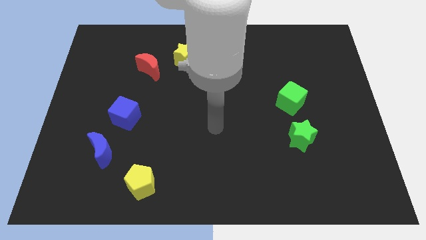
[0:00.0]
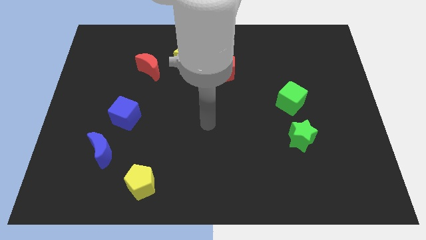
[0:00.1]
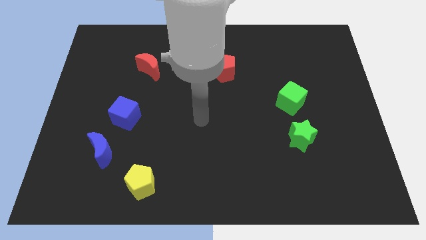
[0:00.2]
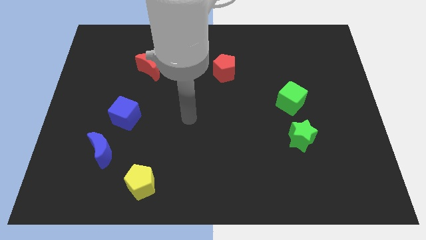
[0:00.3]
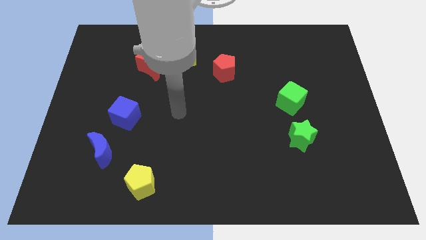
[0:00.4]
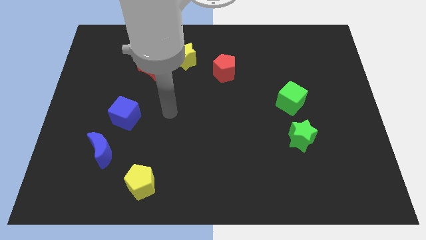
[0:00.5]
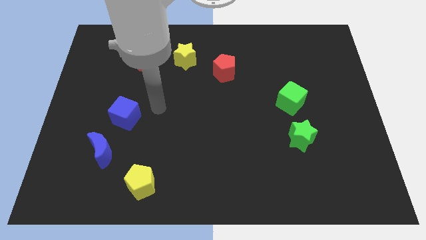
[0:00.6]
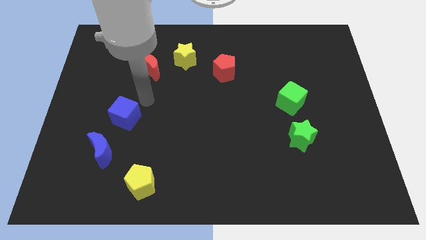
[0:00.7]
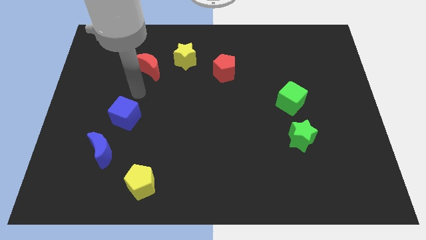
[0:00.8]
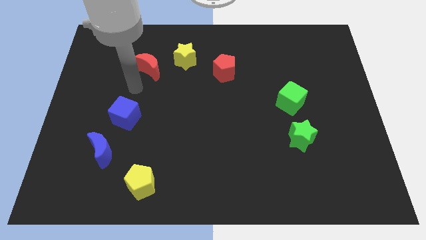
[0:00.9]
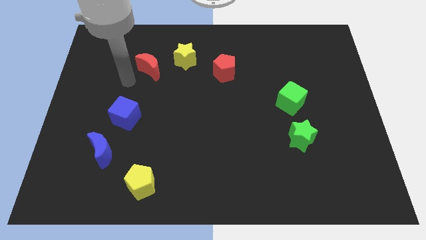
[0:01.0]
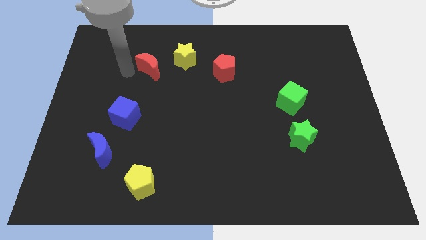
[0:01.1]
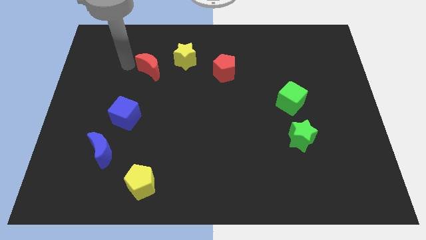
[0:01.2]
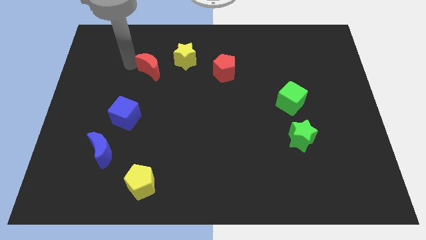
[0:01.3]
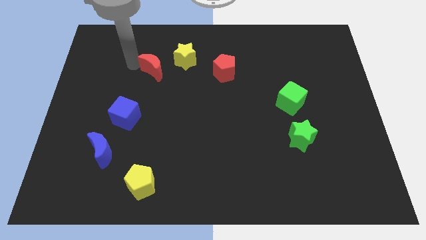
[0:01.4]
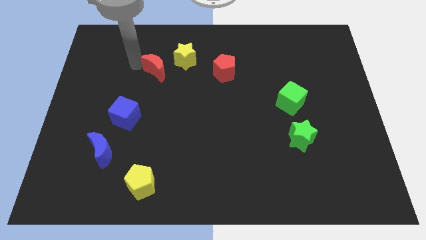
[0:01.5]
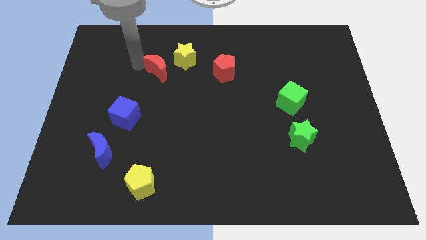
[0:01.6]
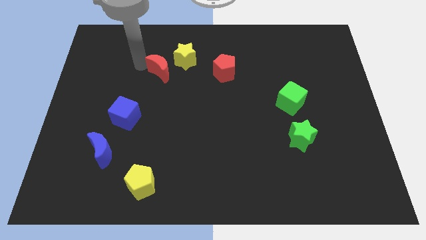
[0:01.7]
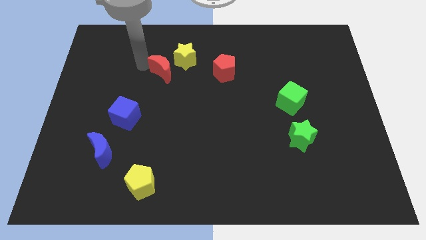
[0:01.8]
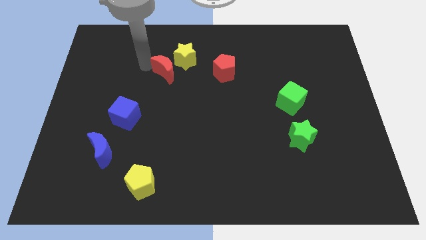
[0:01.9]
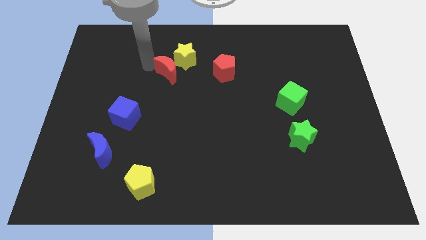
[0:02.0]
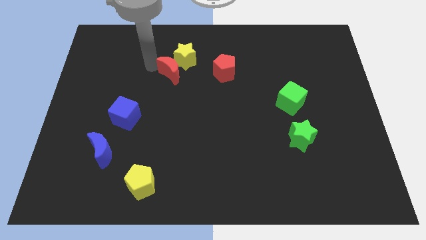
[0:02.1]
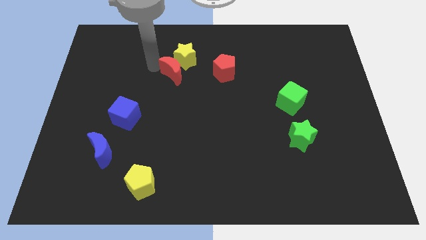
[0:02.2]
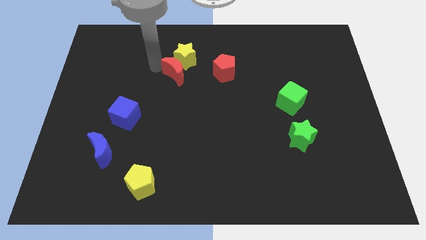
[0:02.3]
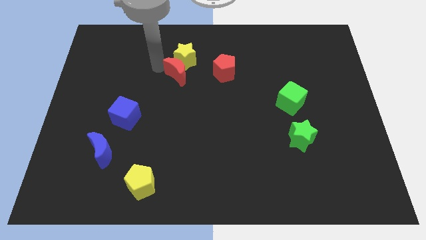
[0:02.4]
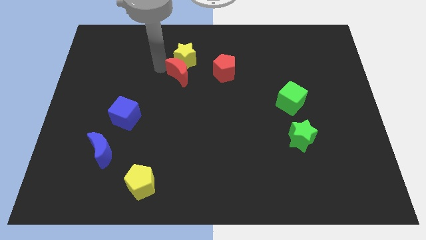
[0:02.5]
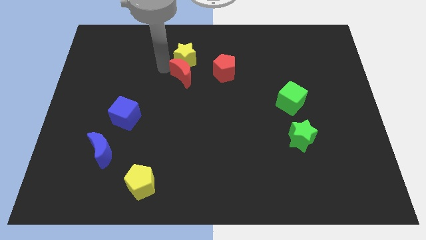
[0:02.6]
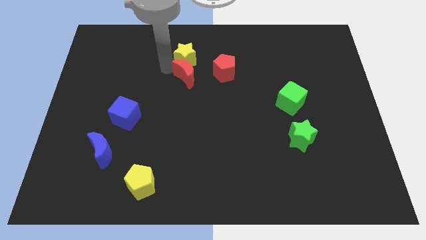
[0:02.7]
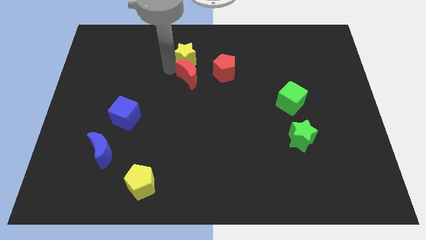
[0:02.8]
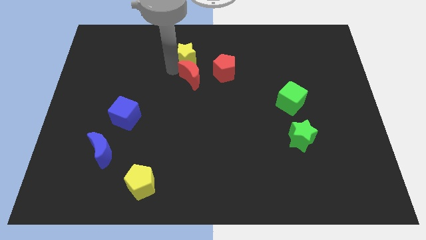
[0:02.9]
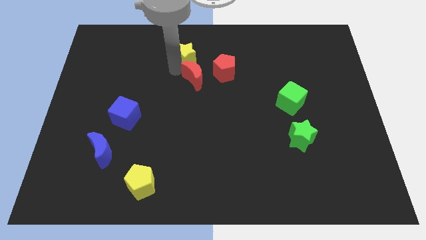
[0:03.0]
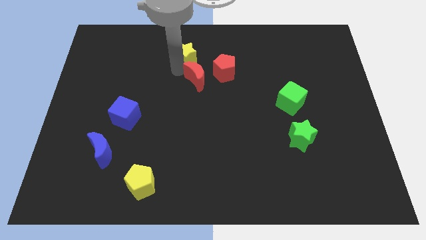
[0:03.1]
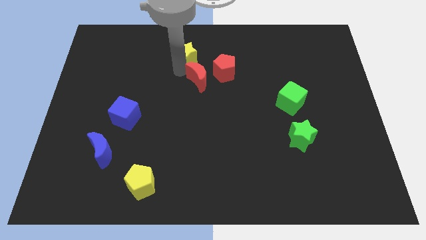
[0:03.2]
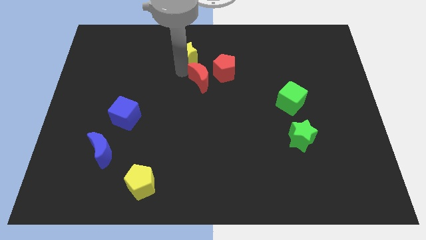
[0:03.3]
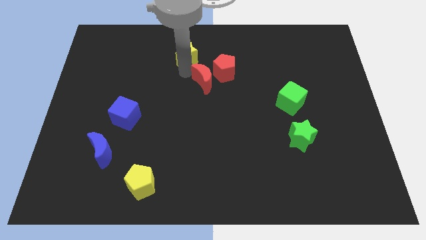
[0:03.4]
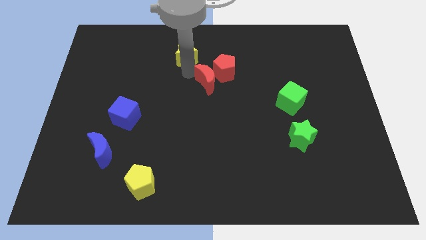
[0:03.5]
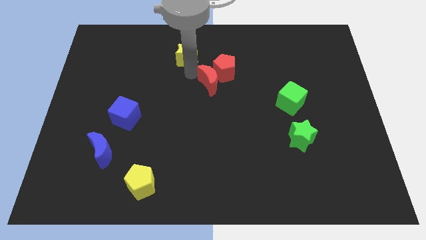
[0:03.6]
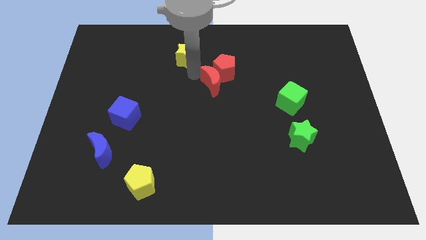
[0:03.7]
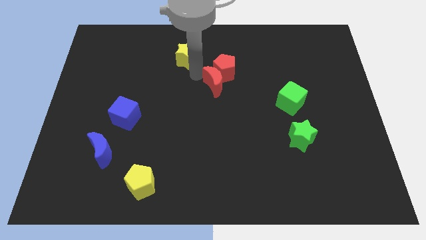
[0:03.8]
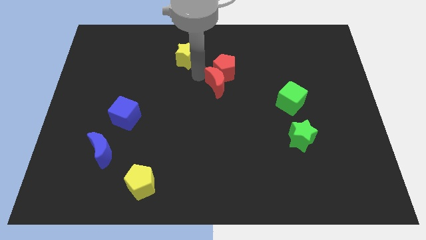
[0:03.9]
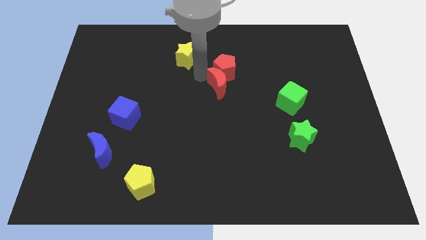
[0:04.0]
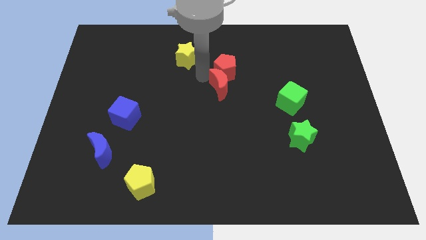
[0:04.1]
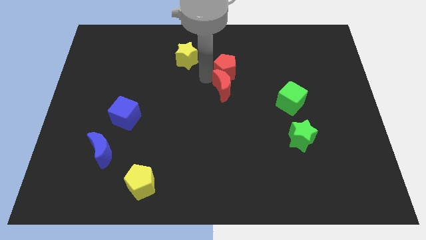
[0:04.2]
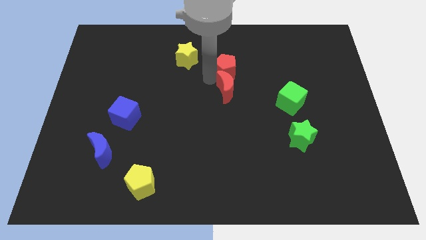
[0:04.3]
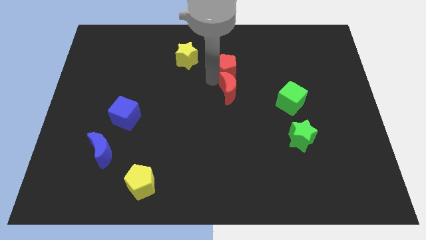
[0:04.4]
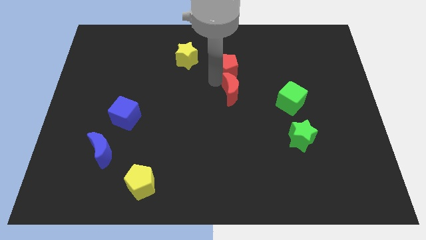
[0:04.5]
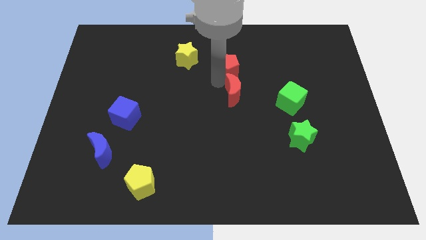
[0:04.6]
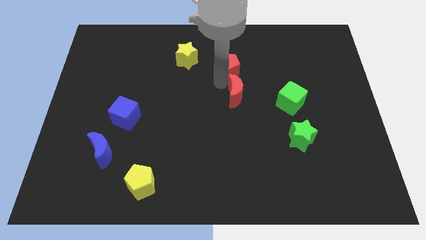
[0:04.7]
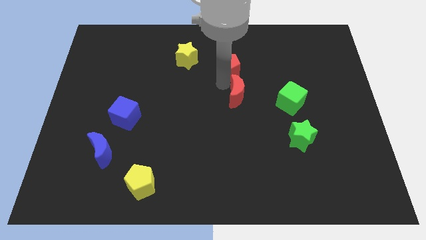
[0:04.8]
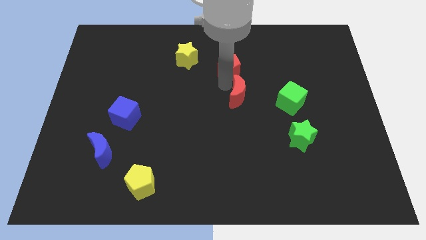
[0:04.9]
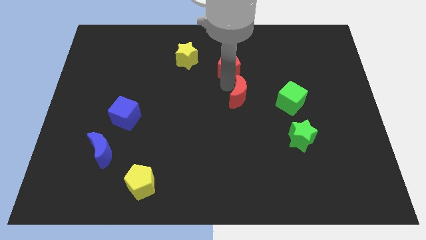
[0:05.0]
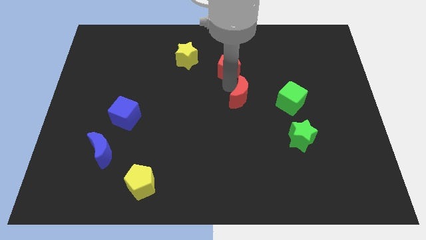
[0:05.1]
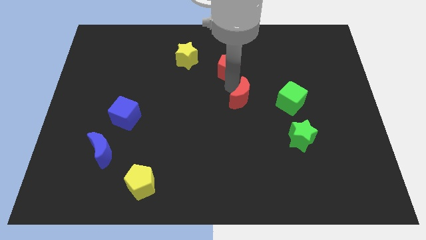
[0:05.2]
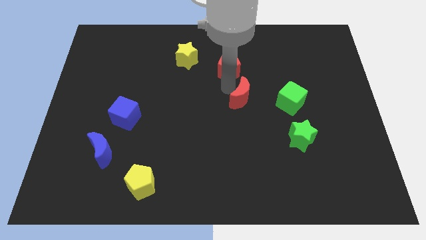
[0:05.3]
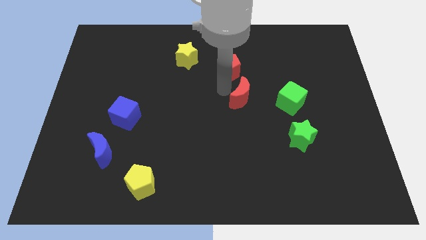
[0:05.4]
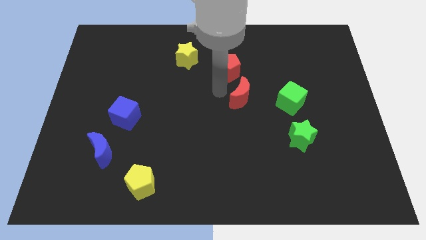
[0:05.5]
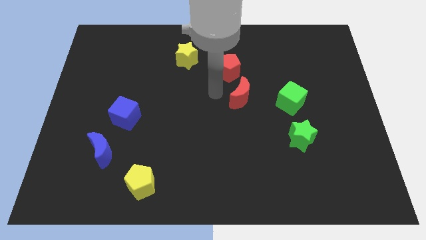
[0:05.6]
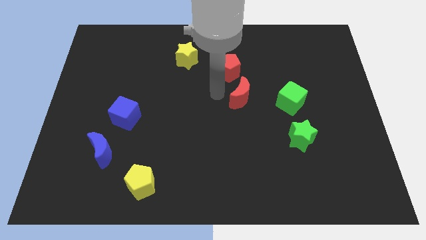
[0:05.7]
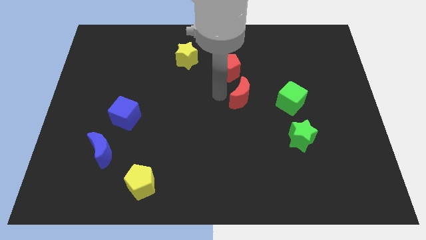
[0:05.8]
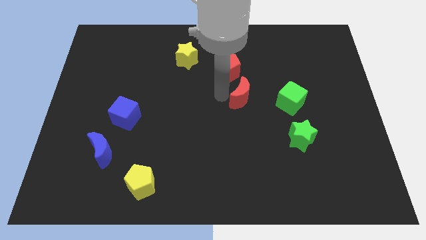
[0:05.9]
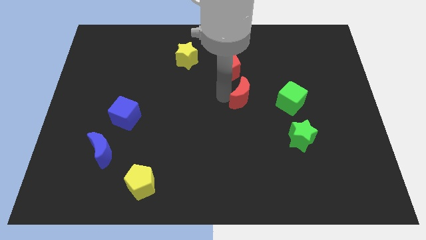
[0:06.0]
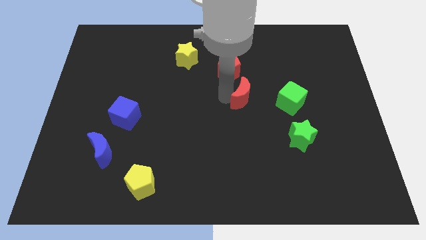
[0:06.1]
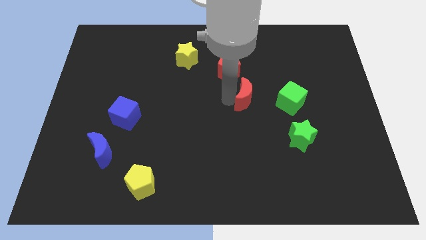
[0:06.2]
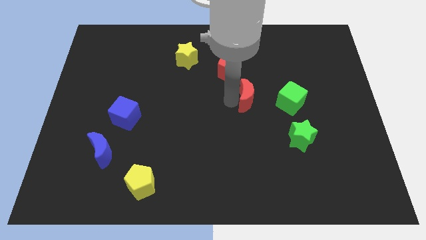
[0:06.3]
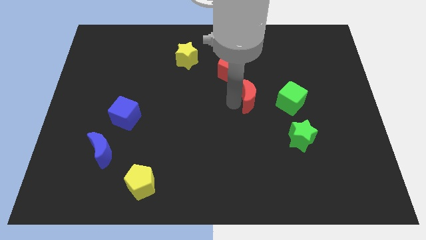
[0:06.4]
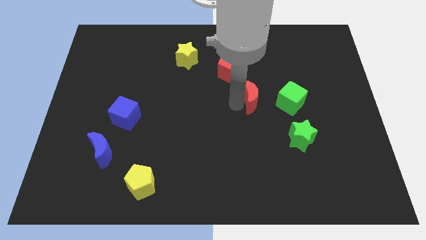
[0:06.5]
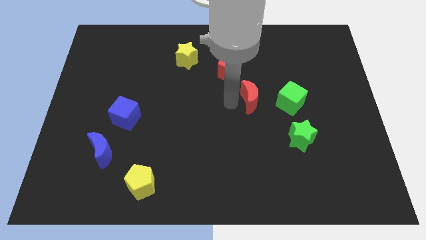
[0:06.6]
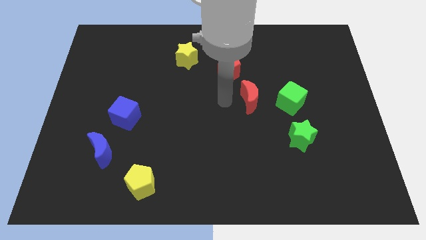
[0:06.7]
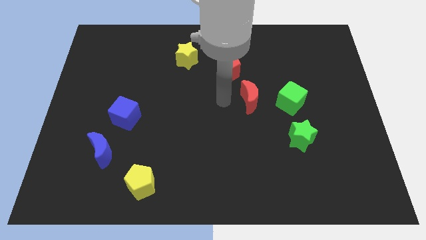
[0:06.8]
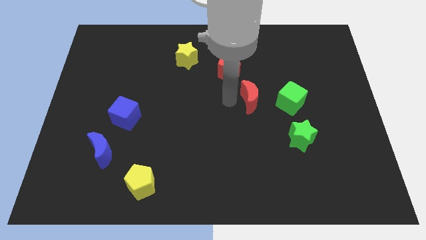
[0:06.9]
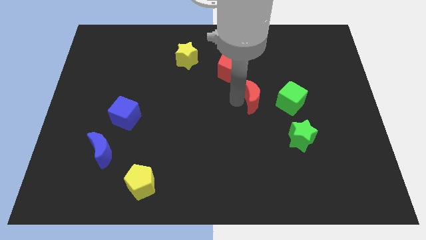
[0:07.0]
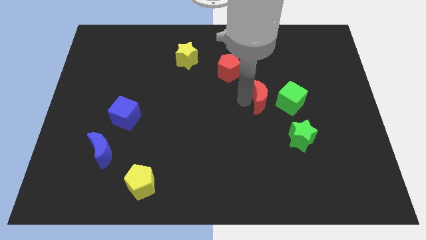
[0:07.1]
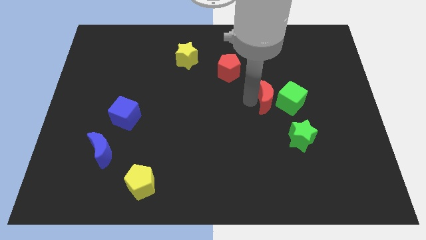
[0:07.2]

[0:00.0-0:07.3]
slide the red moon close to the green cube
